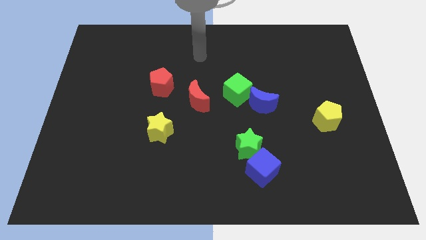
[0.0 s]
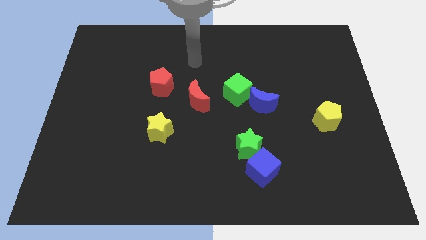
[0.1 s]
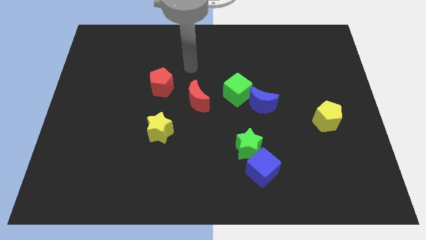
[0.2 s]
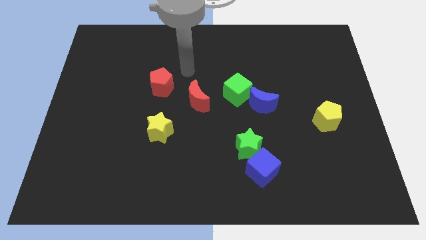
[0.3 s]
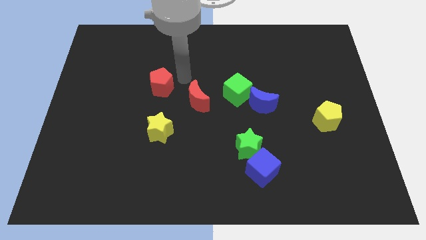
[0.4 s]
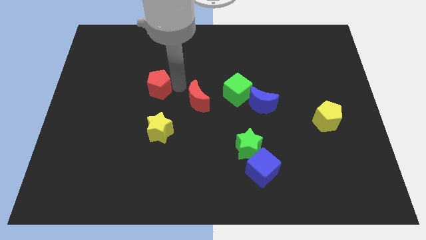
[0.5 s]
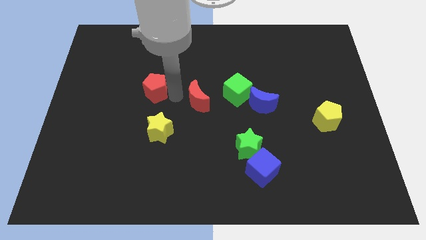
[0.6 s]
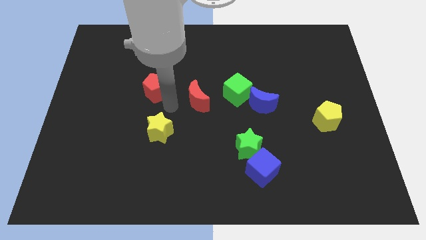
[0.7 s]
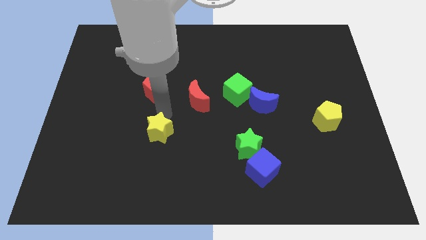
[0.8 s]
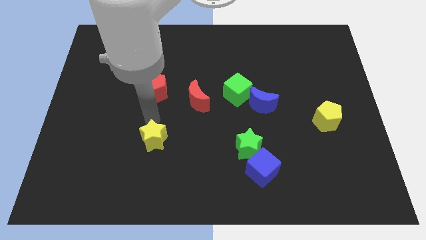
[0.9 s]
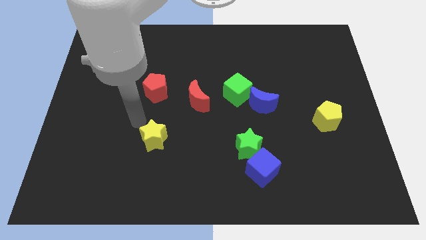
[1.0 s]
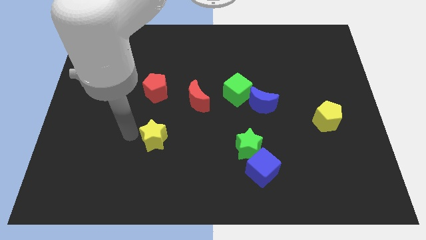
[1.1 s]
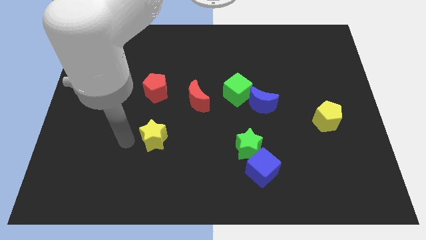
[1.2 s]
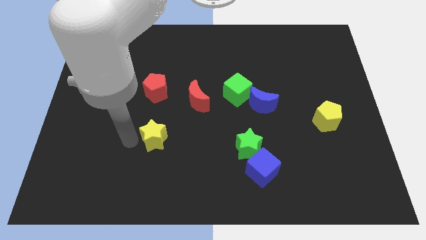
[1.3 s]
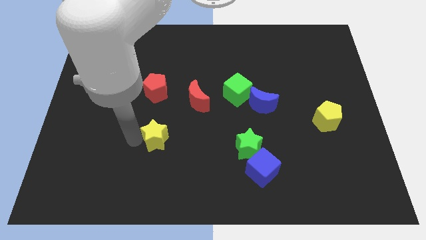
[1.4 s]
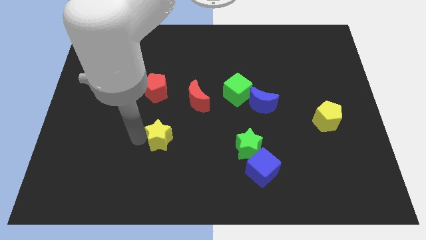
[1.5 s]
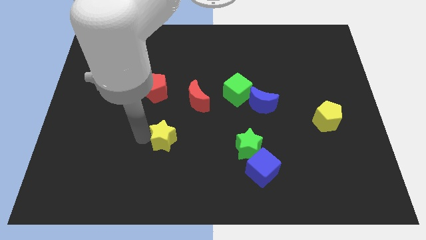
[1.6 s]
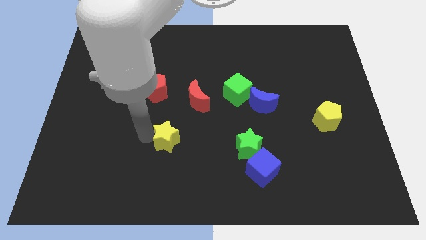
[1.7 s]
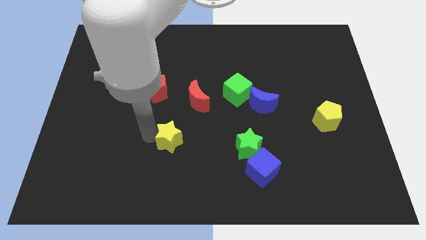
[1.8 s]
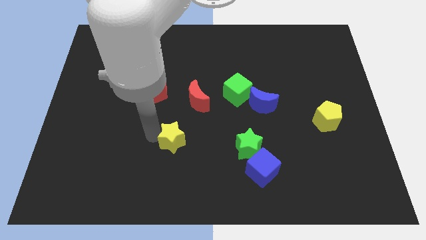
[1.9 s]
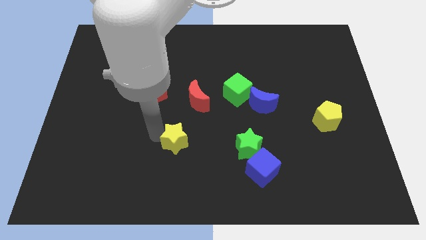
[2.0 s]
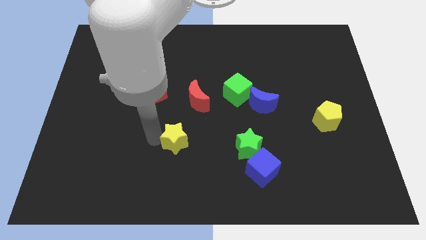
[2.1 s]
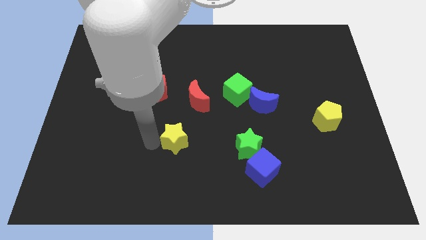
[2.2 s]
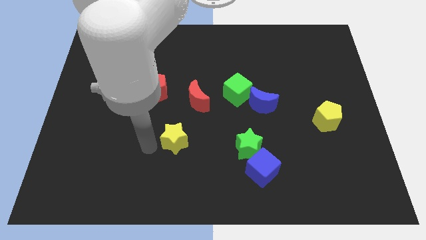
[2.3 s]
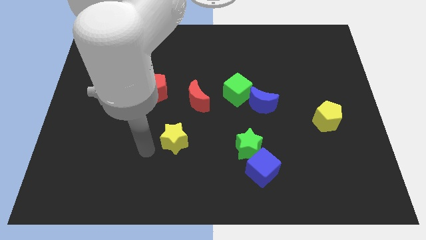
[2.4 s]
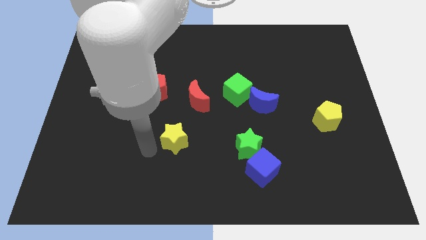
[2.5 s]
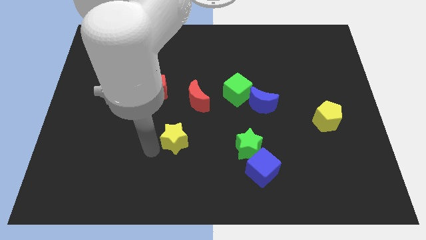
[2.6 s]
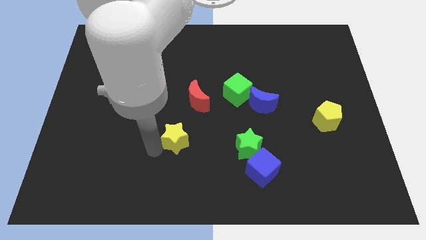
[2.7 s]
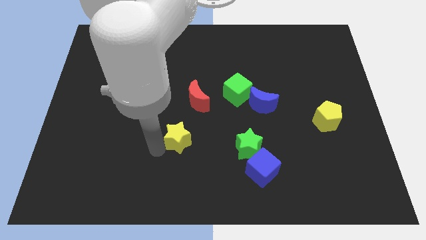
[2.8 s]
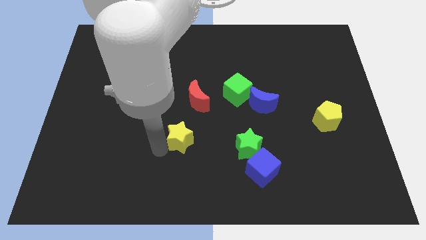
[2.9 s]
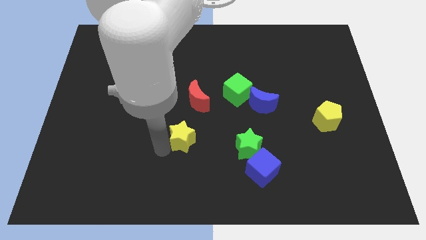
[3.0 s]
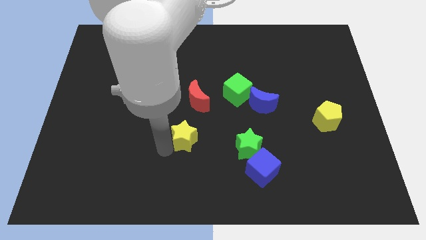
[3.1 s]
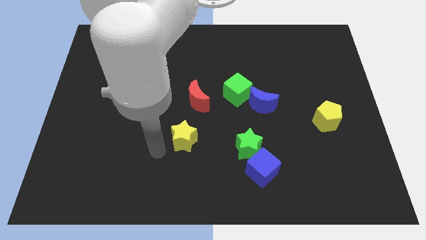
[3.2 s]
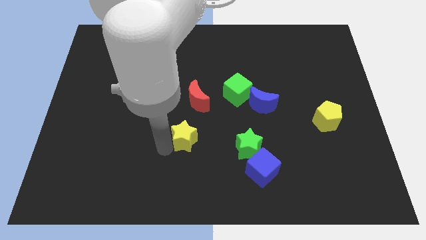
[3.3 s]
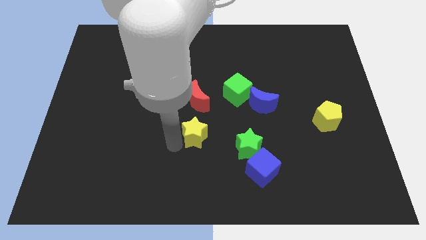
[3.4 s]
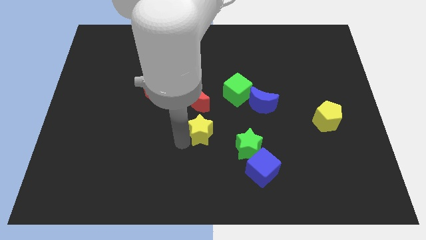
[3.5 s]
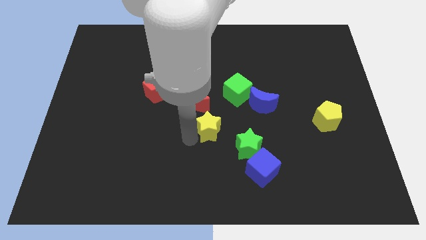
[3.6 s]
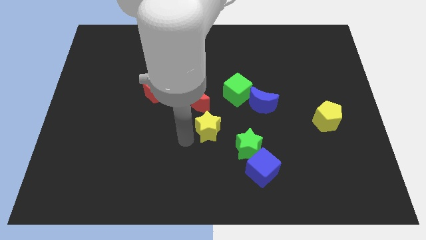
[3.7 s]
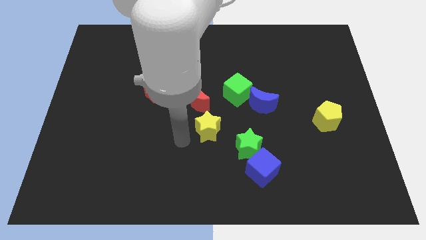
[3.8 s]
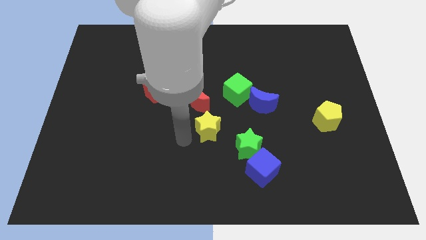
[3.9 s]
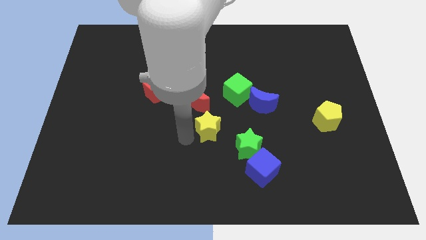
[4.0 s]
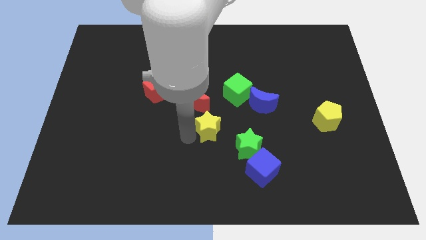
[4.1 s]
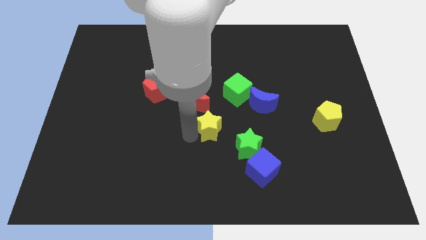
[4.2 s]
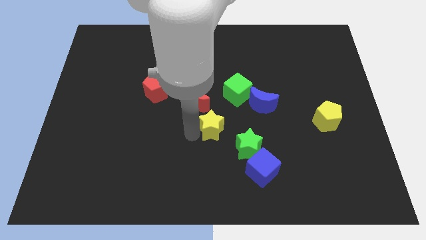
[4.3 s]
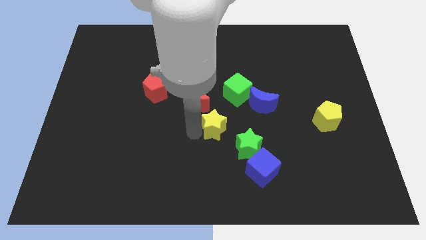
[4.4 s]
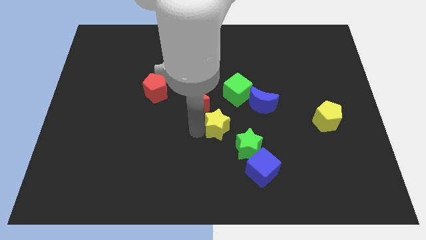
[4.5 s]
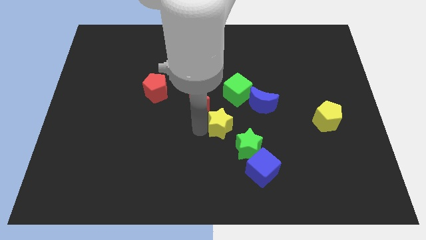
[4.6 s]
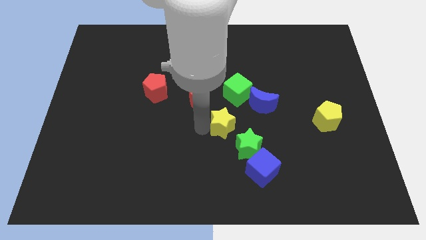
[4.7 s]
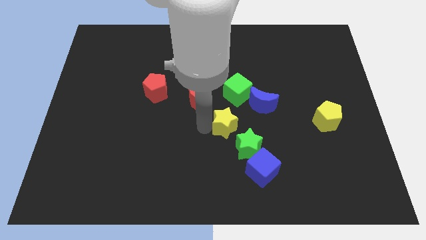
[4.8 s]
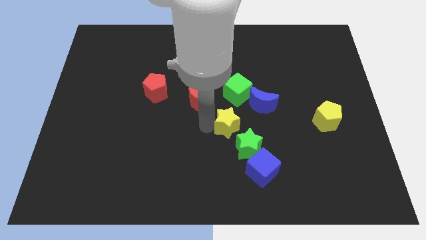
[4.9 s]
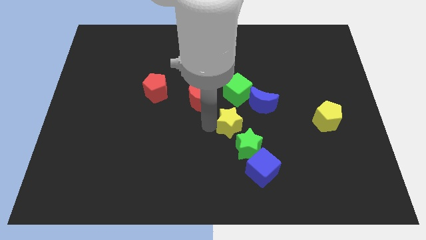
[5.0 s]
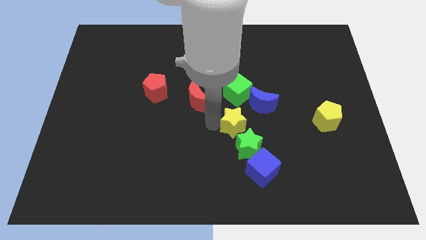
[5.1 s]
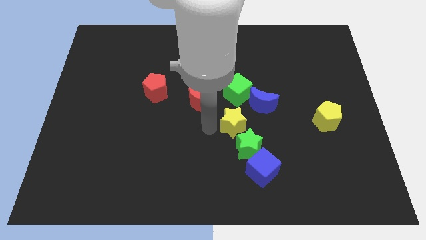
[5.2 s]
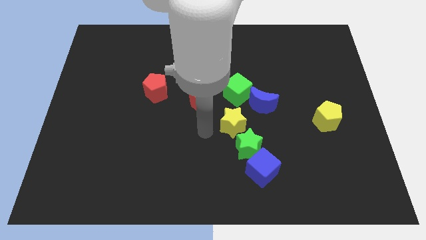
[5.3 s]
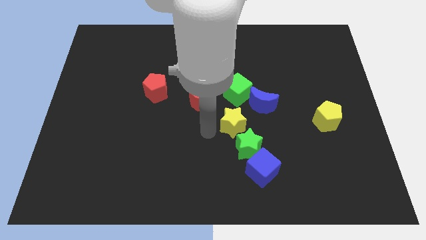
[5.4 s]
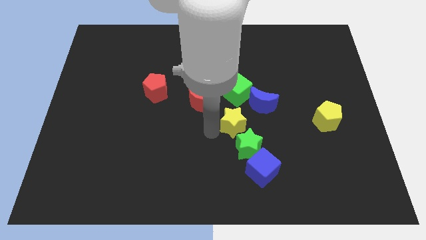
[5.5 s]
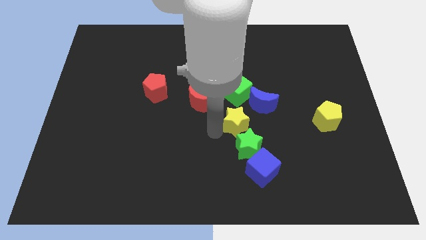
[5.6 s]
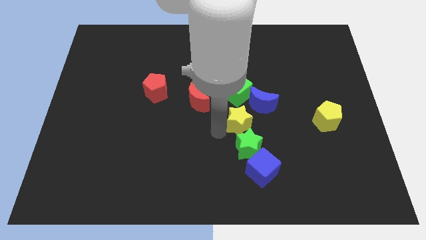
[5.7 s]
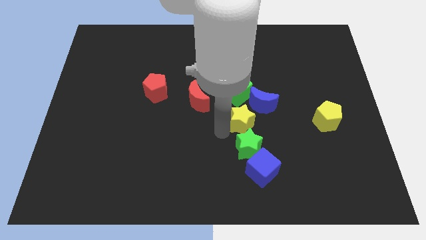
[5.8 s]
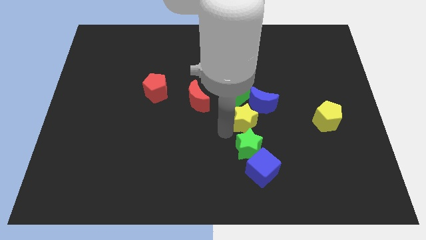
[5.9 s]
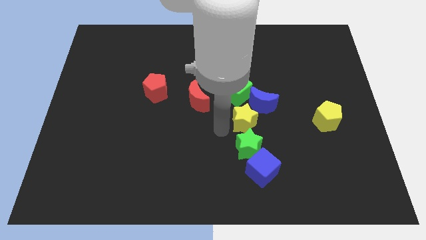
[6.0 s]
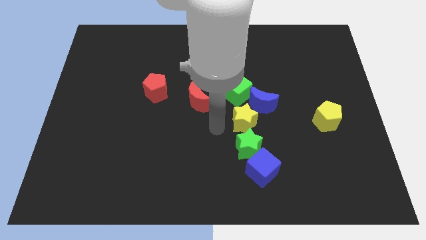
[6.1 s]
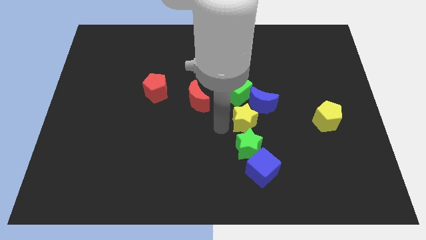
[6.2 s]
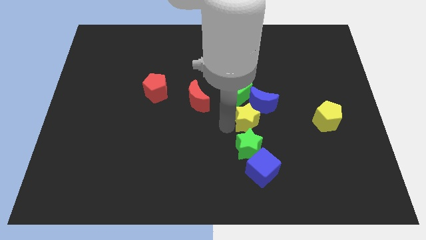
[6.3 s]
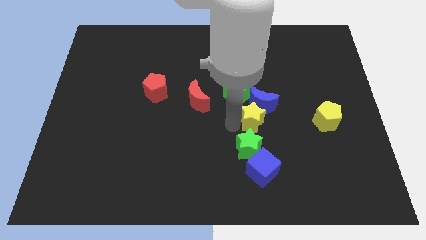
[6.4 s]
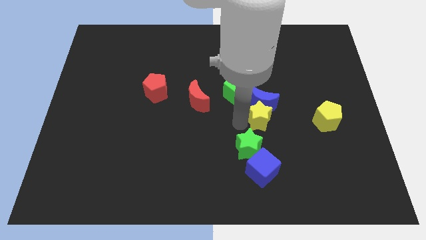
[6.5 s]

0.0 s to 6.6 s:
push the yellow star to the left side of the yellow pentagon
